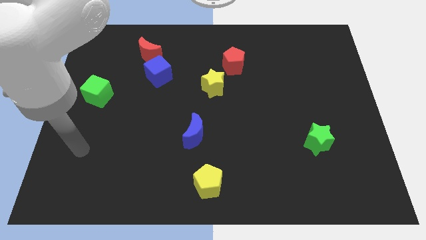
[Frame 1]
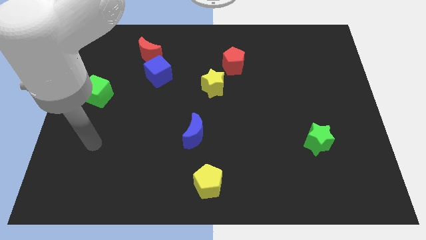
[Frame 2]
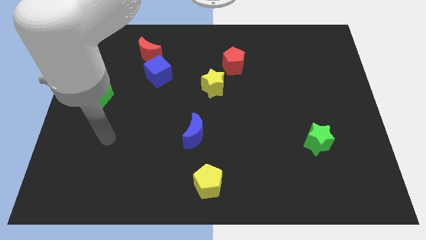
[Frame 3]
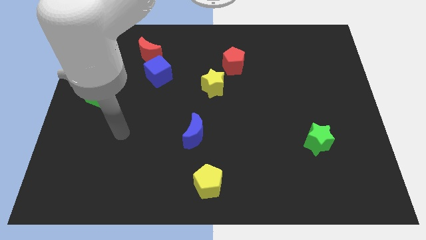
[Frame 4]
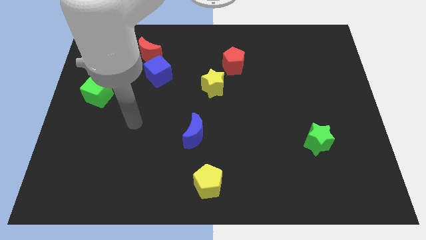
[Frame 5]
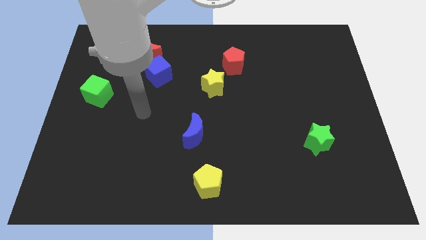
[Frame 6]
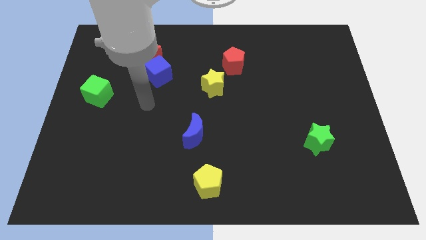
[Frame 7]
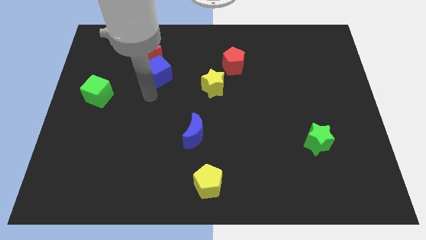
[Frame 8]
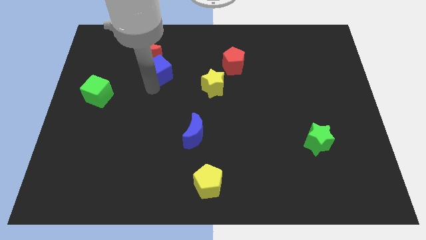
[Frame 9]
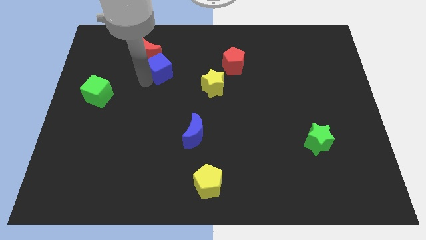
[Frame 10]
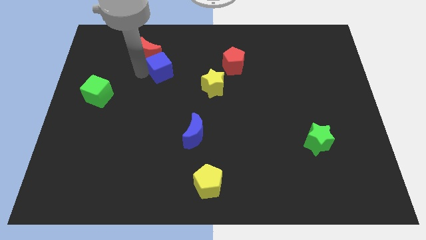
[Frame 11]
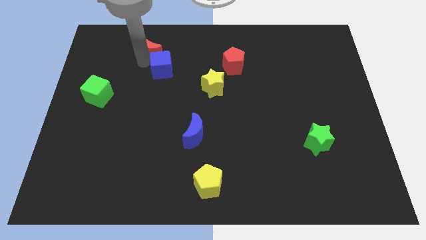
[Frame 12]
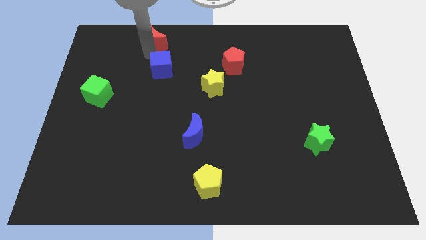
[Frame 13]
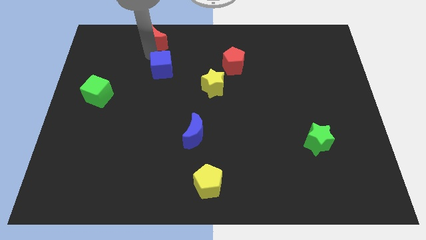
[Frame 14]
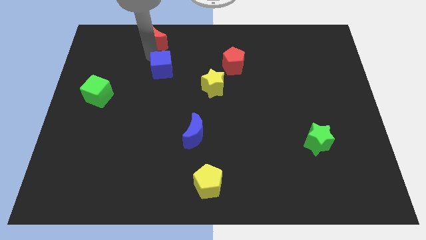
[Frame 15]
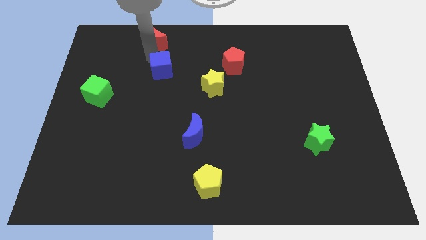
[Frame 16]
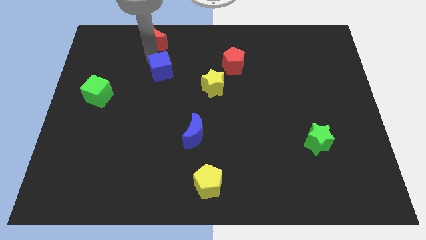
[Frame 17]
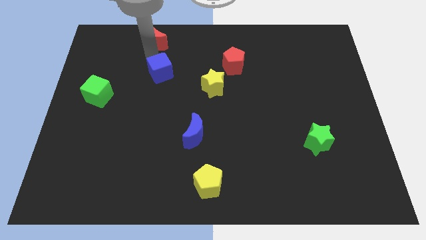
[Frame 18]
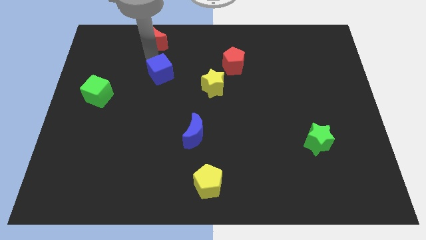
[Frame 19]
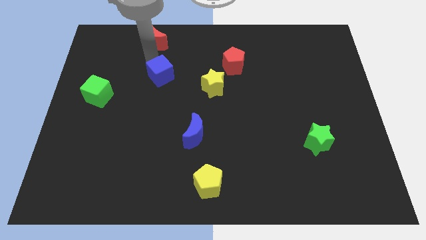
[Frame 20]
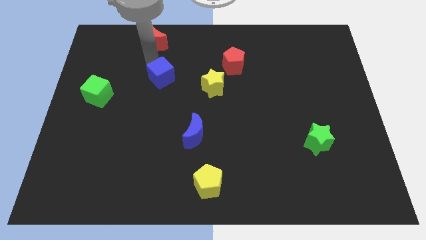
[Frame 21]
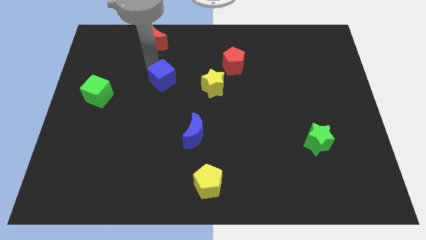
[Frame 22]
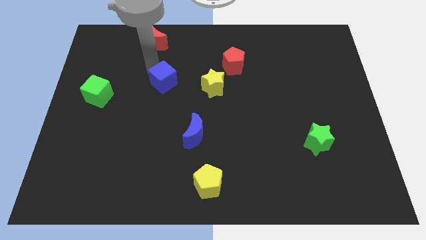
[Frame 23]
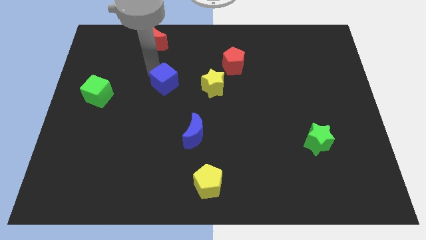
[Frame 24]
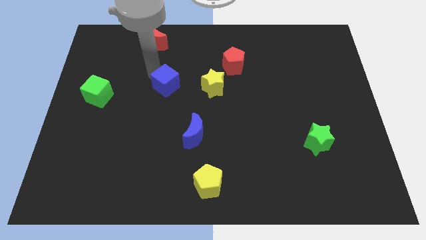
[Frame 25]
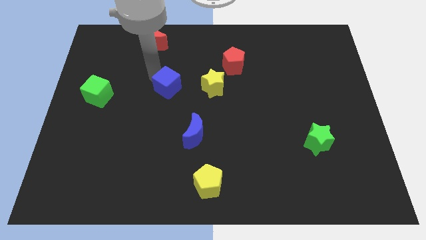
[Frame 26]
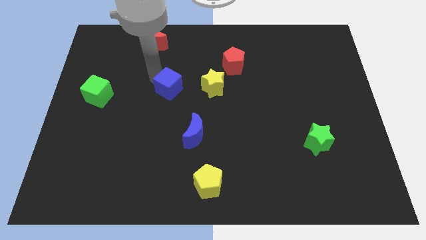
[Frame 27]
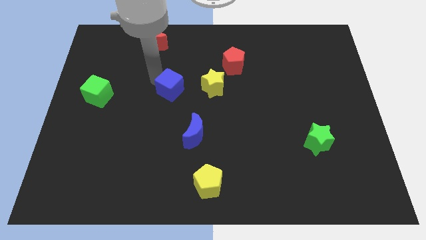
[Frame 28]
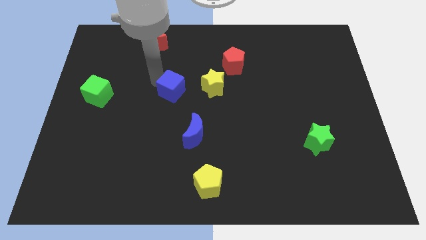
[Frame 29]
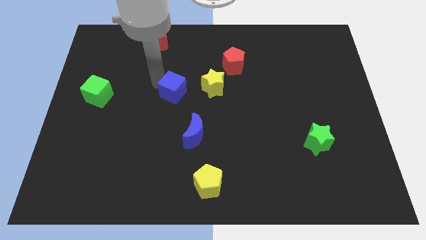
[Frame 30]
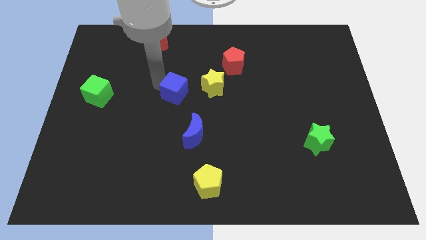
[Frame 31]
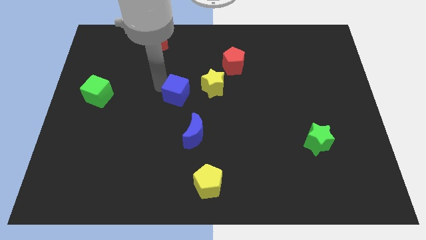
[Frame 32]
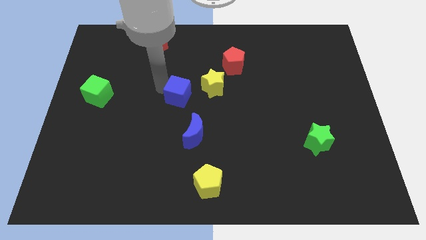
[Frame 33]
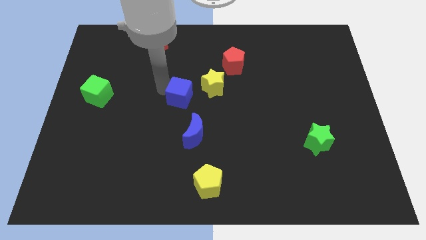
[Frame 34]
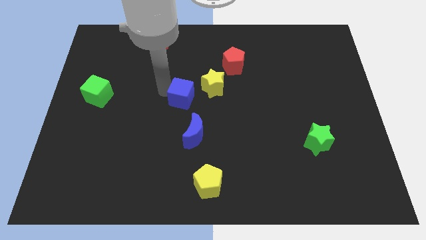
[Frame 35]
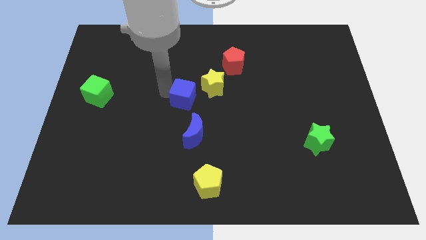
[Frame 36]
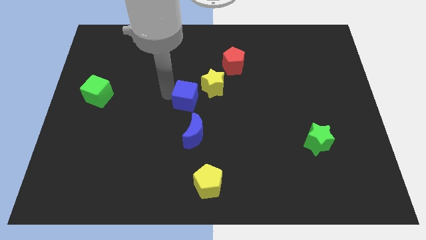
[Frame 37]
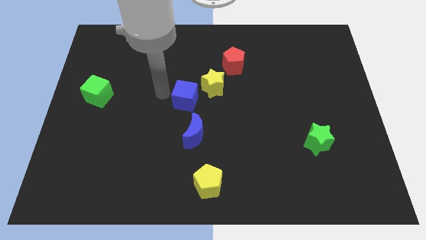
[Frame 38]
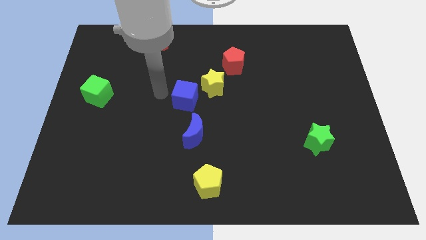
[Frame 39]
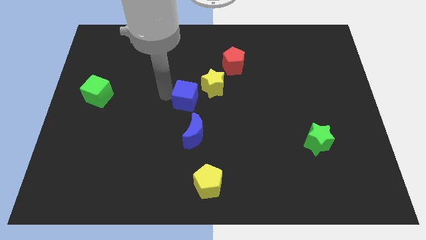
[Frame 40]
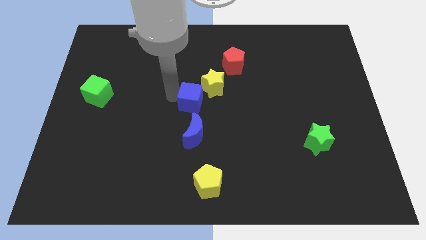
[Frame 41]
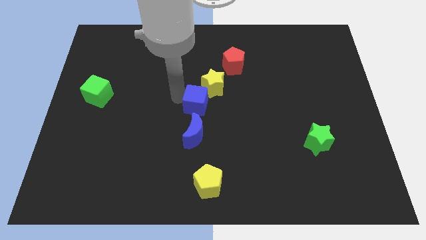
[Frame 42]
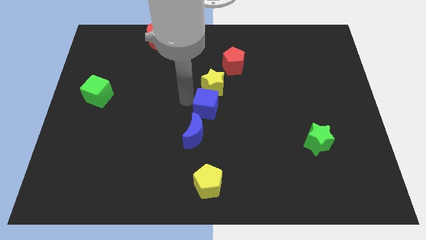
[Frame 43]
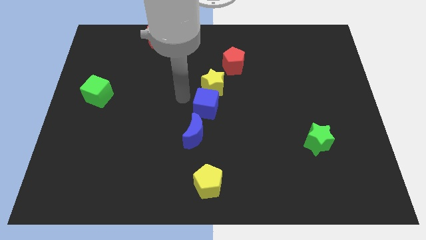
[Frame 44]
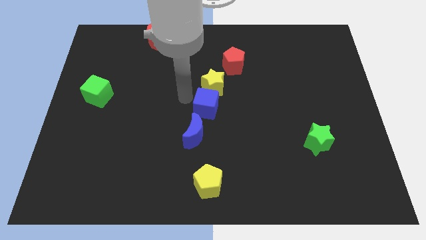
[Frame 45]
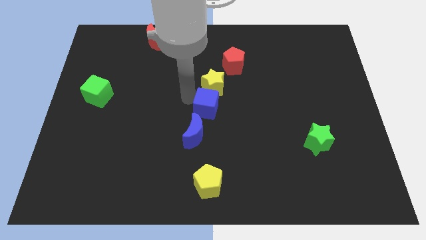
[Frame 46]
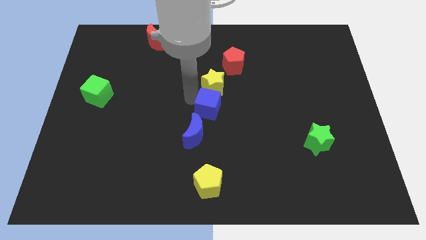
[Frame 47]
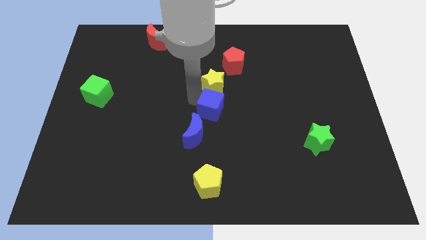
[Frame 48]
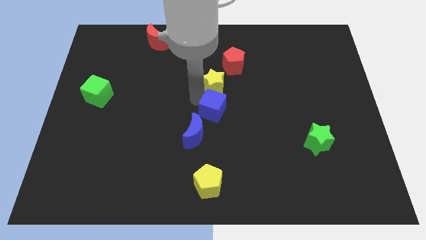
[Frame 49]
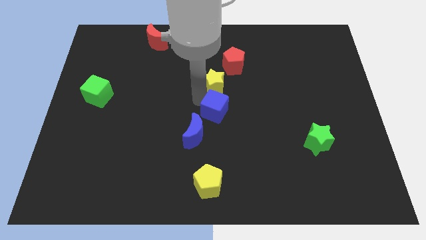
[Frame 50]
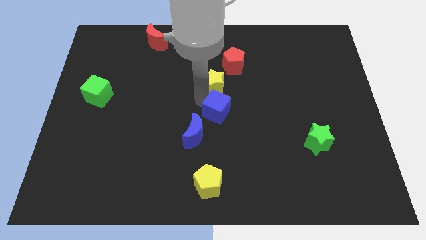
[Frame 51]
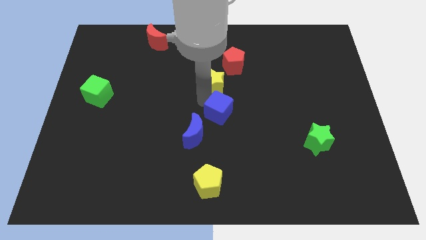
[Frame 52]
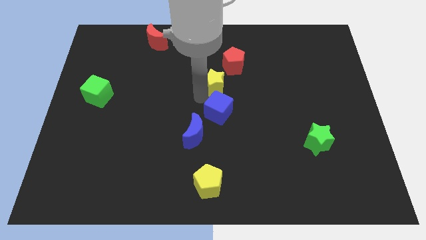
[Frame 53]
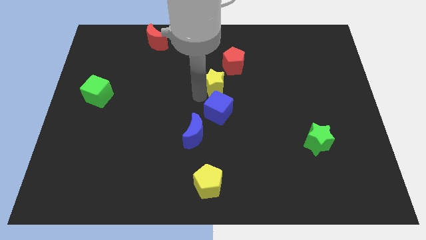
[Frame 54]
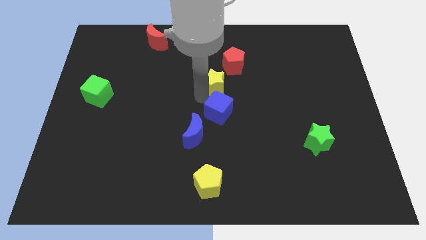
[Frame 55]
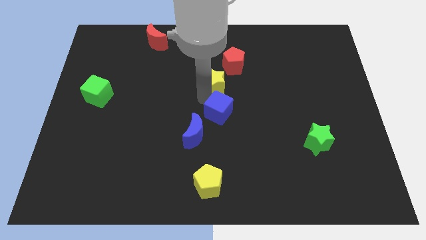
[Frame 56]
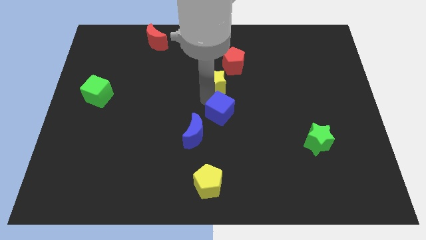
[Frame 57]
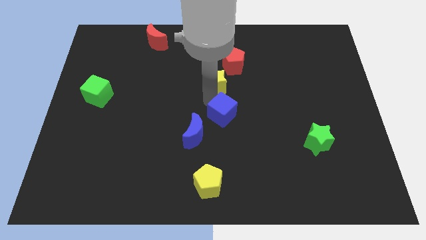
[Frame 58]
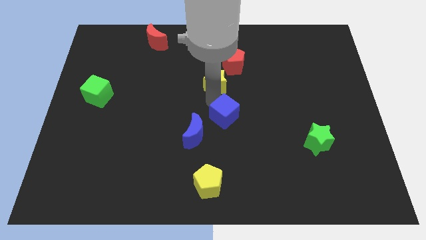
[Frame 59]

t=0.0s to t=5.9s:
move the blue cube downwards and right diagonally

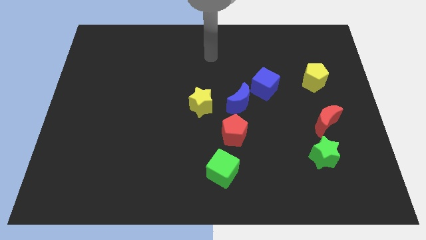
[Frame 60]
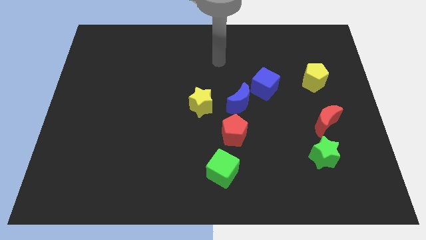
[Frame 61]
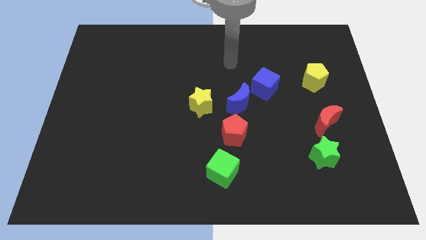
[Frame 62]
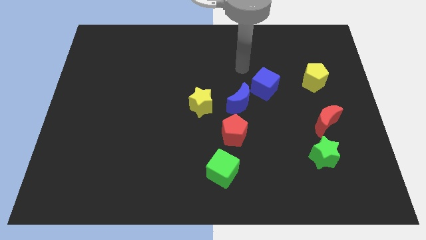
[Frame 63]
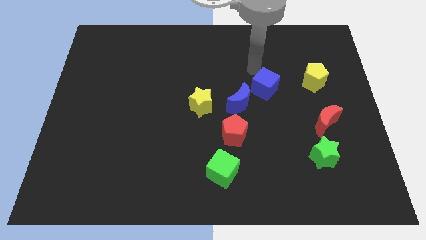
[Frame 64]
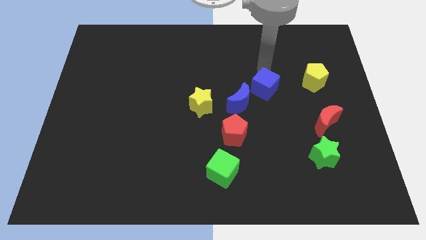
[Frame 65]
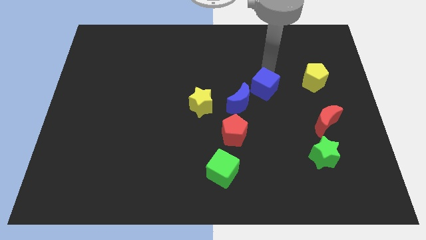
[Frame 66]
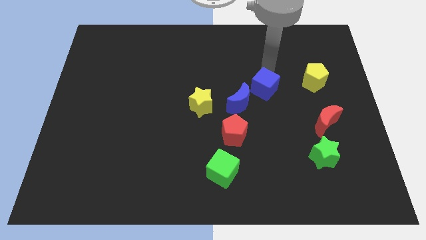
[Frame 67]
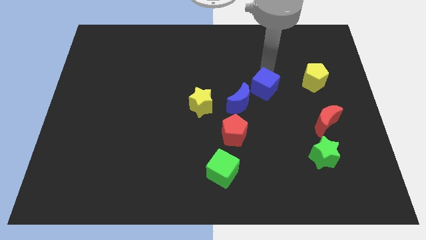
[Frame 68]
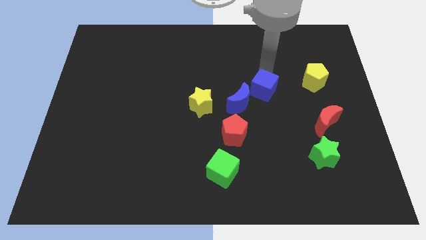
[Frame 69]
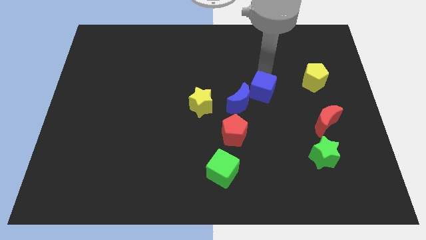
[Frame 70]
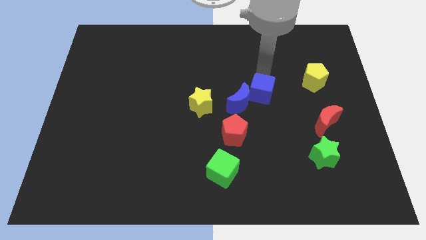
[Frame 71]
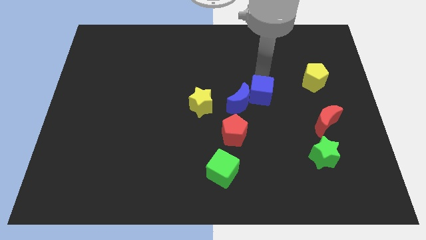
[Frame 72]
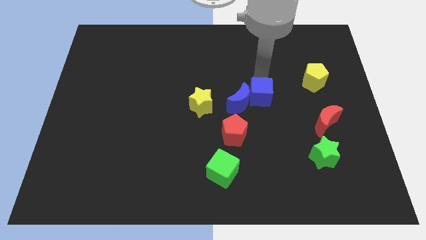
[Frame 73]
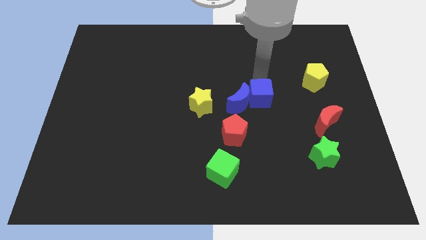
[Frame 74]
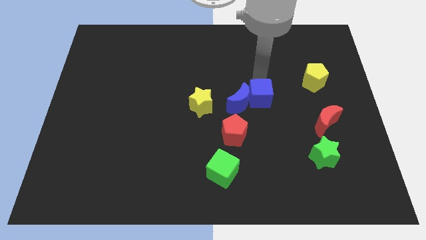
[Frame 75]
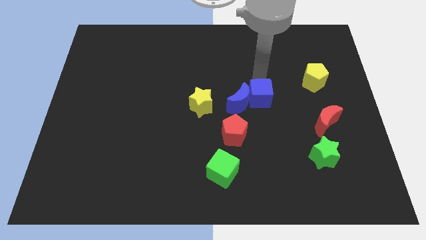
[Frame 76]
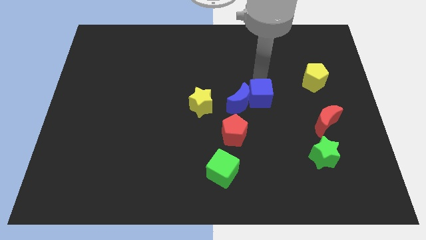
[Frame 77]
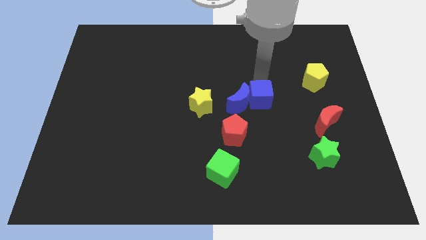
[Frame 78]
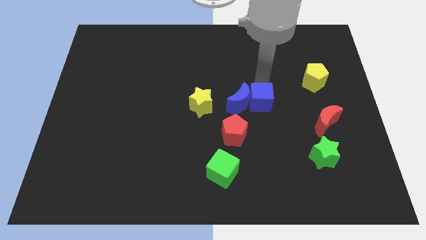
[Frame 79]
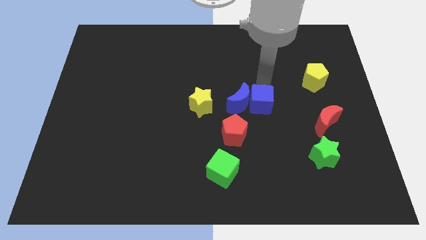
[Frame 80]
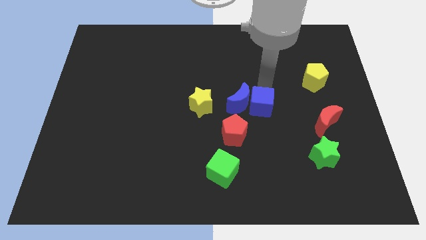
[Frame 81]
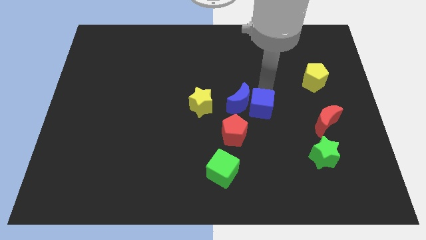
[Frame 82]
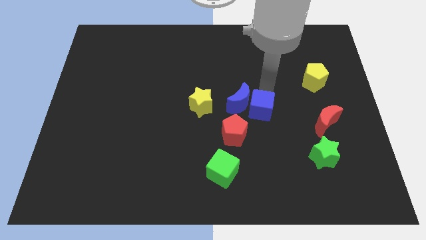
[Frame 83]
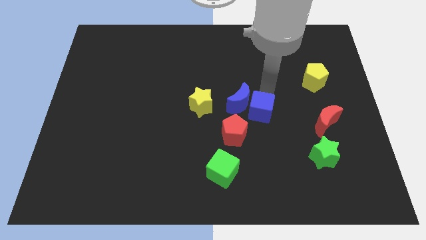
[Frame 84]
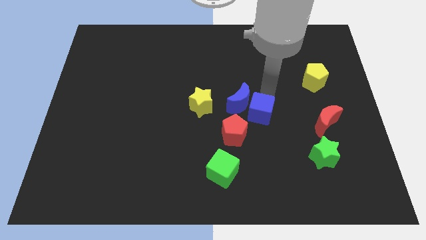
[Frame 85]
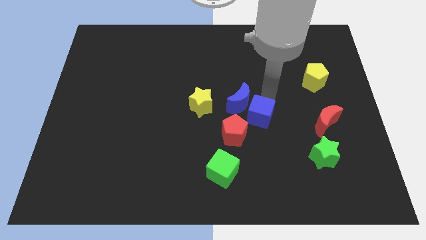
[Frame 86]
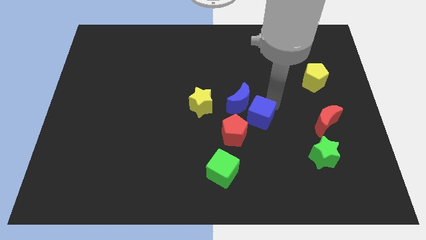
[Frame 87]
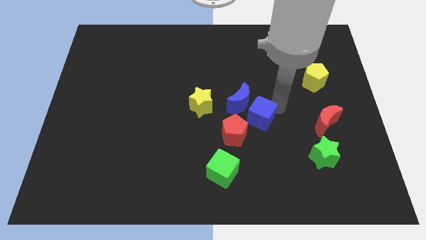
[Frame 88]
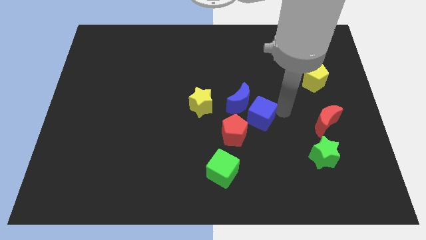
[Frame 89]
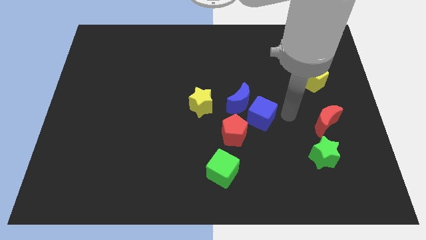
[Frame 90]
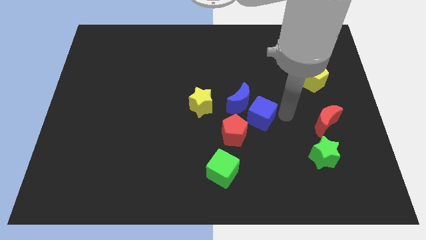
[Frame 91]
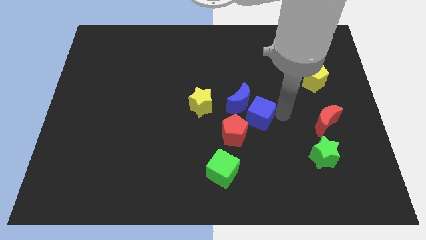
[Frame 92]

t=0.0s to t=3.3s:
push the blue cube somewhat downwards and then left
